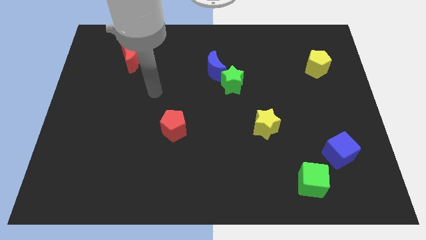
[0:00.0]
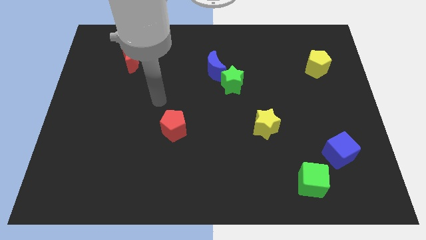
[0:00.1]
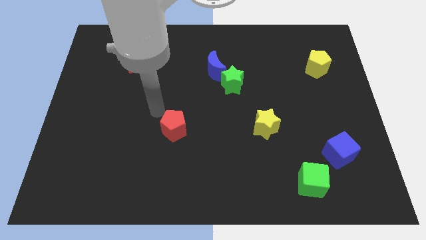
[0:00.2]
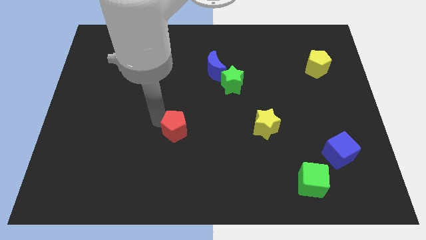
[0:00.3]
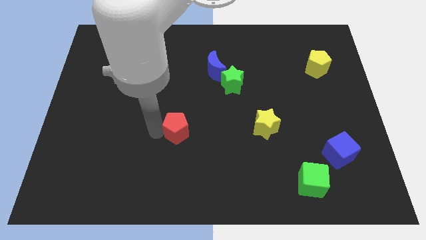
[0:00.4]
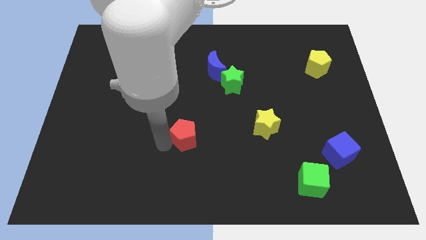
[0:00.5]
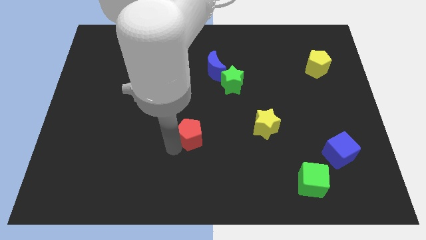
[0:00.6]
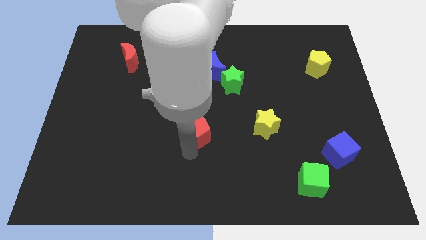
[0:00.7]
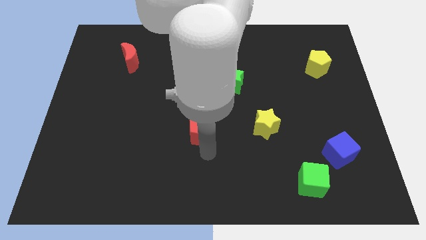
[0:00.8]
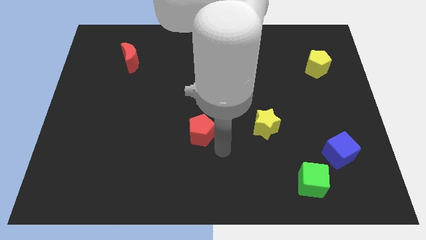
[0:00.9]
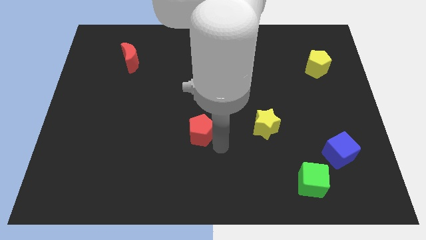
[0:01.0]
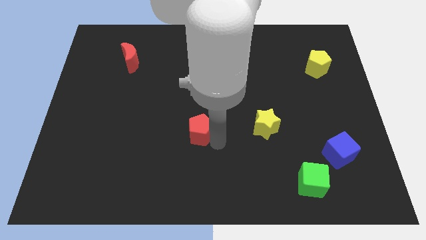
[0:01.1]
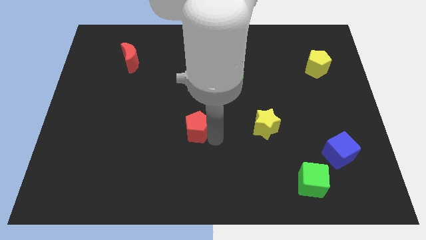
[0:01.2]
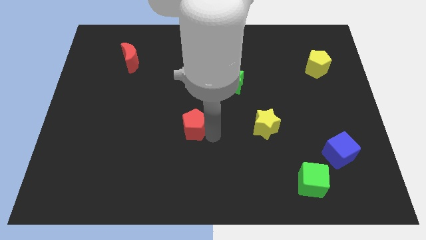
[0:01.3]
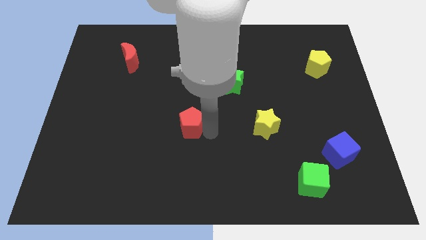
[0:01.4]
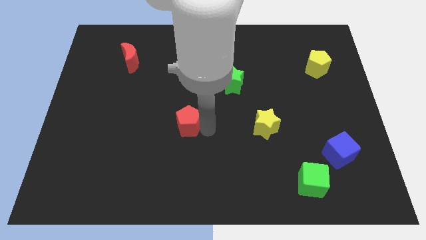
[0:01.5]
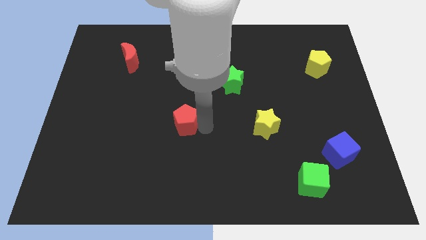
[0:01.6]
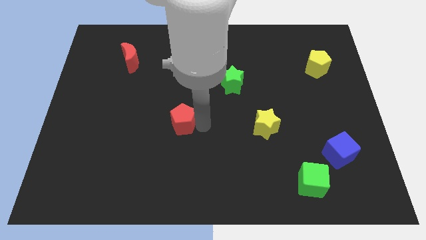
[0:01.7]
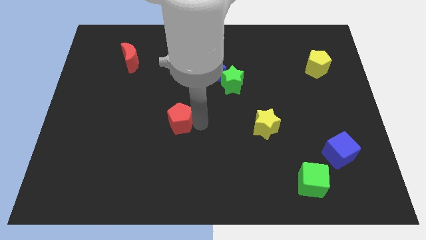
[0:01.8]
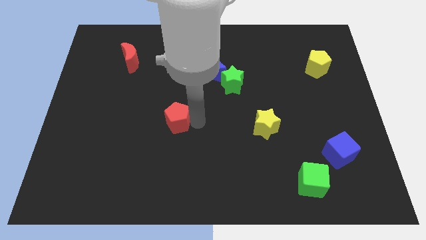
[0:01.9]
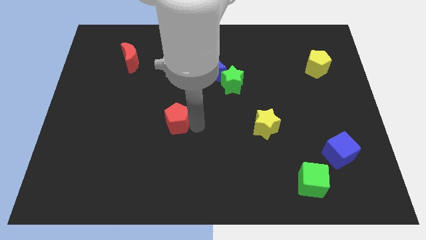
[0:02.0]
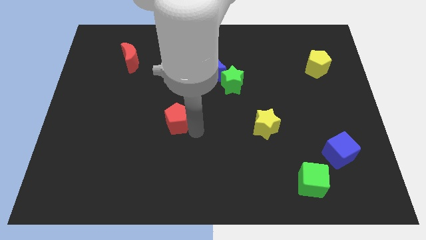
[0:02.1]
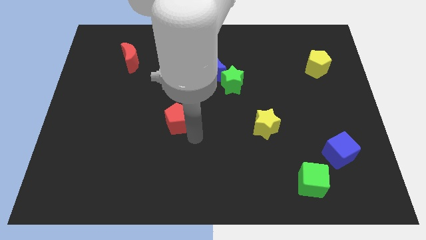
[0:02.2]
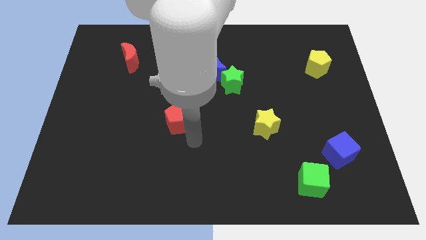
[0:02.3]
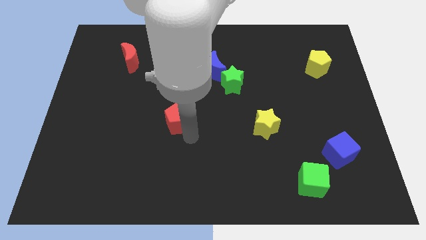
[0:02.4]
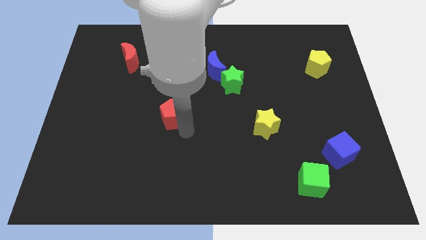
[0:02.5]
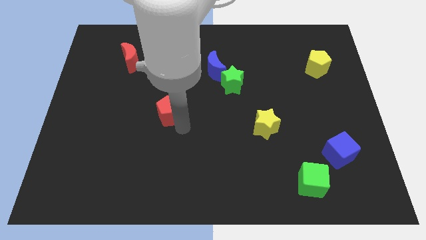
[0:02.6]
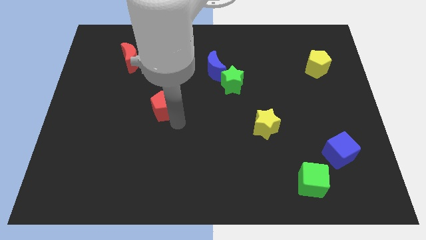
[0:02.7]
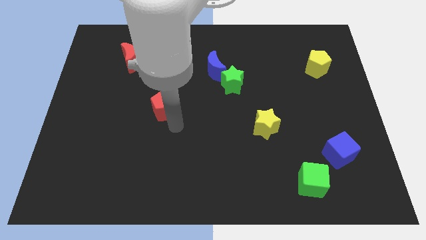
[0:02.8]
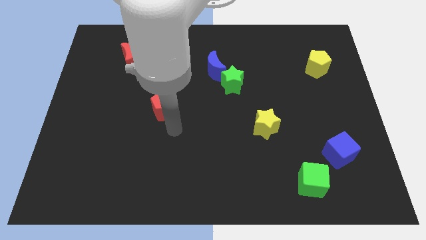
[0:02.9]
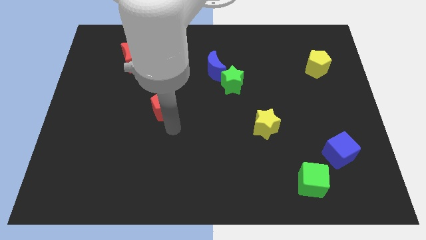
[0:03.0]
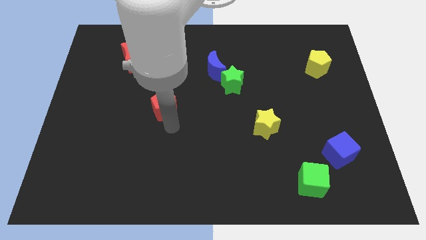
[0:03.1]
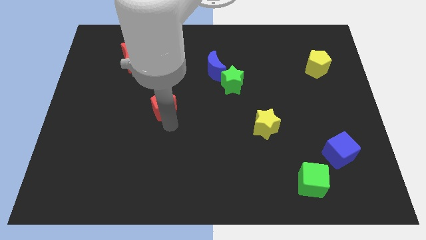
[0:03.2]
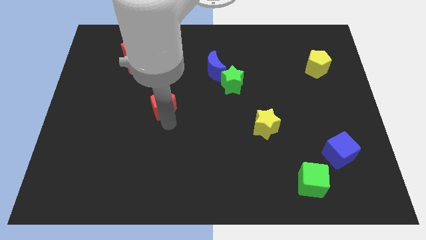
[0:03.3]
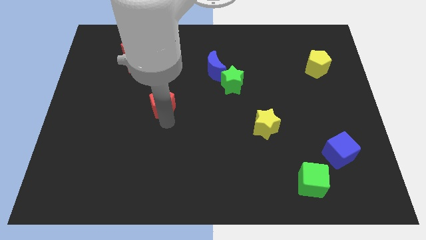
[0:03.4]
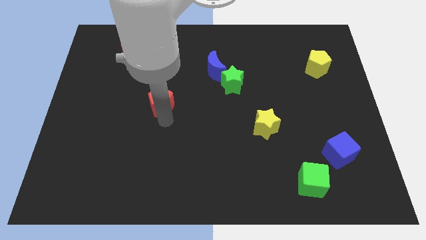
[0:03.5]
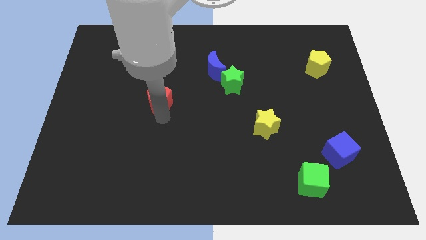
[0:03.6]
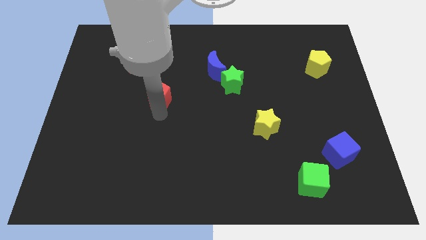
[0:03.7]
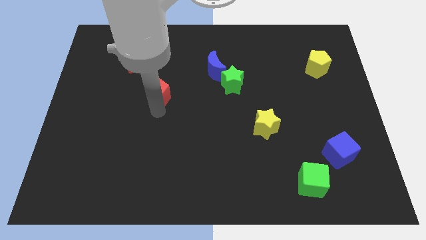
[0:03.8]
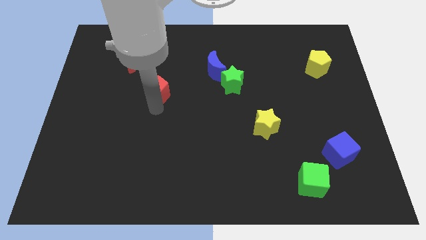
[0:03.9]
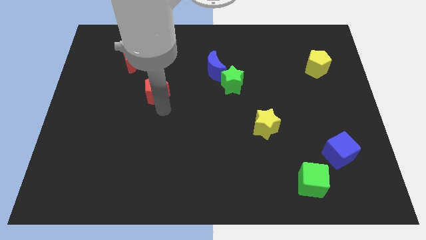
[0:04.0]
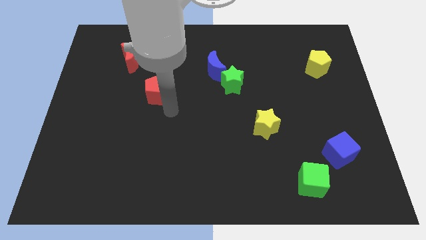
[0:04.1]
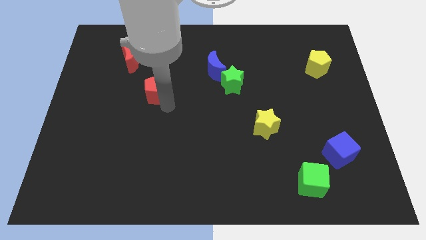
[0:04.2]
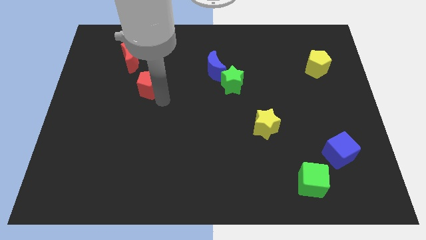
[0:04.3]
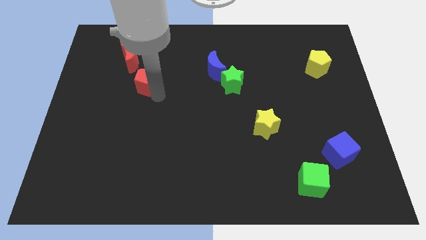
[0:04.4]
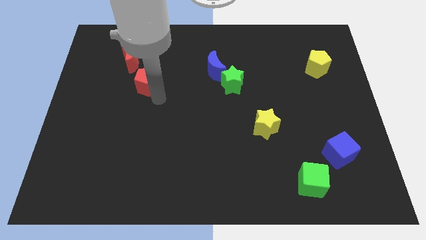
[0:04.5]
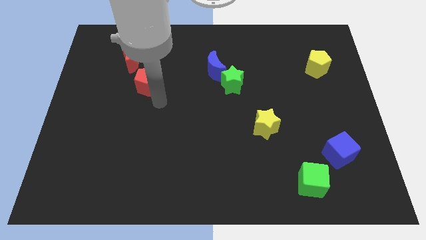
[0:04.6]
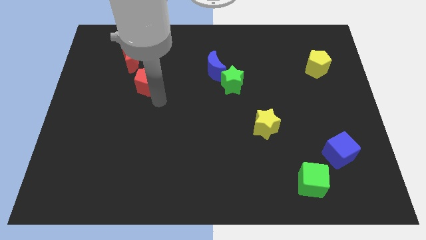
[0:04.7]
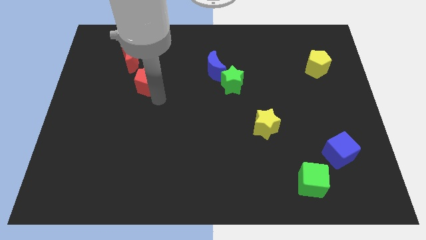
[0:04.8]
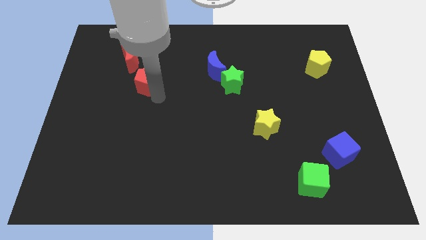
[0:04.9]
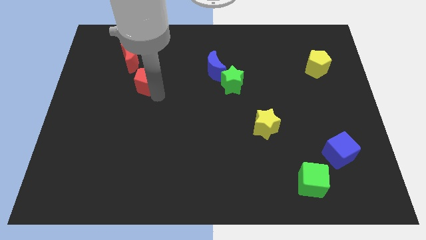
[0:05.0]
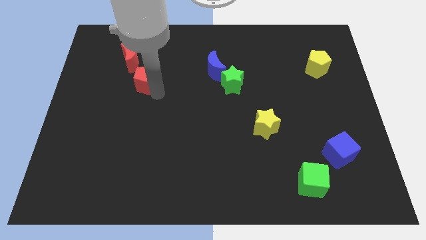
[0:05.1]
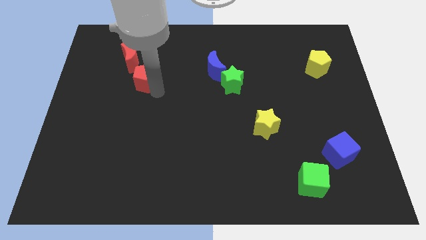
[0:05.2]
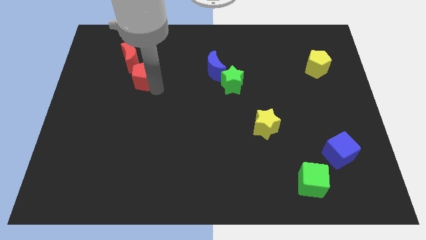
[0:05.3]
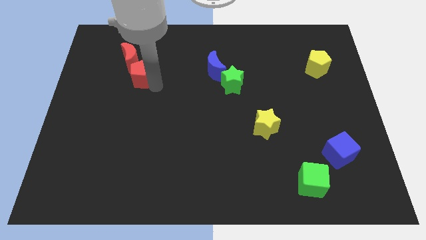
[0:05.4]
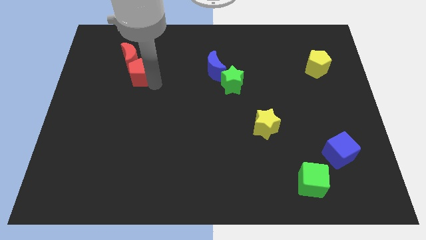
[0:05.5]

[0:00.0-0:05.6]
put the red pentagon next to the red moon
